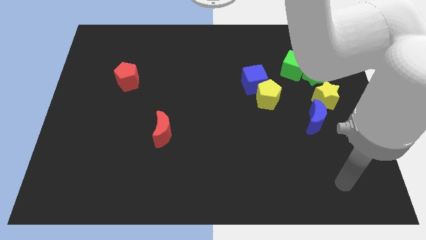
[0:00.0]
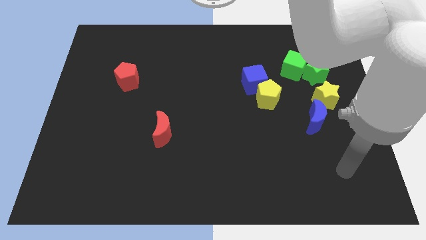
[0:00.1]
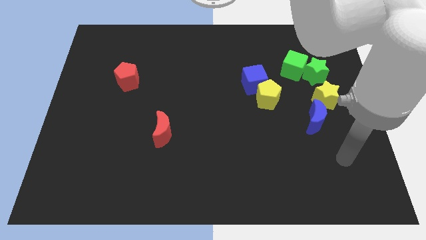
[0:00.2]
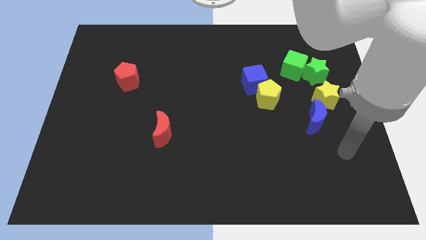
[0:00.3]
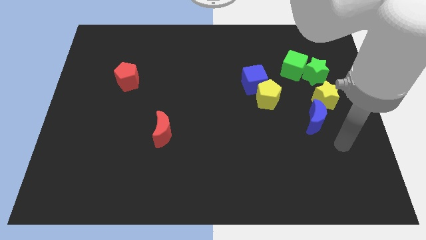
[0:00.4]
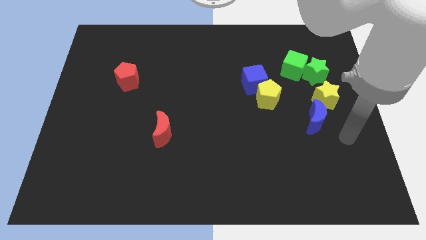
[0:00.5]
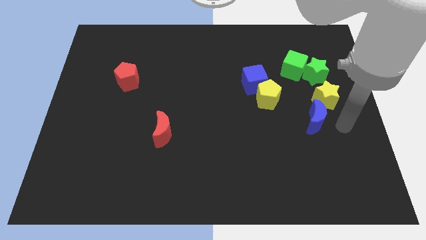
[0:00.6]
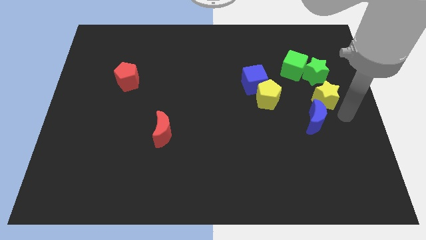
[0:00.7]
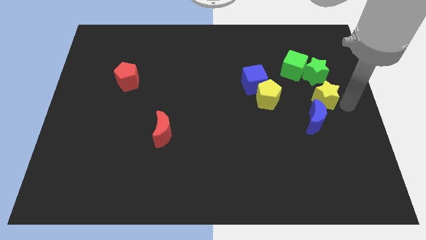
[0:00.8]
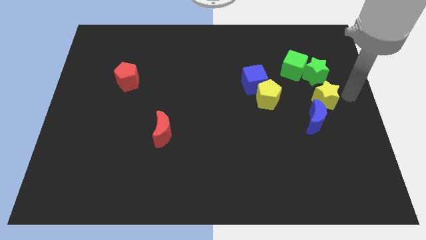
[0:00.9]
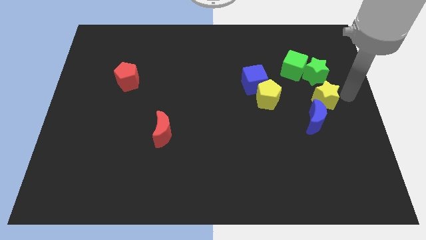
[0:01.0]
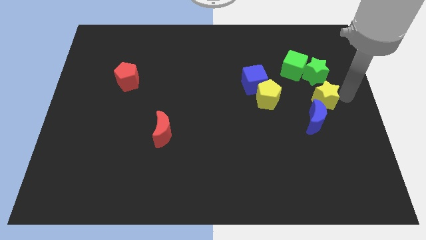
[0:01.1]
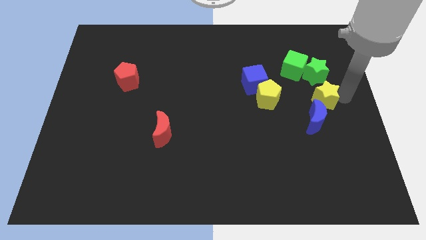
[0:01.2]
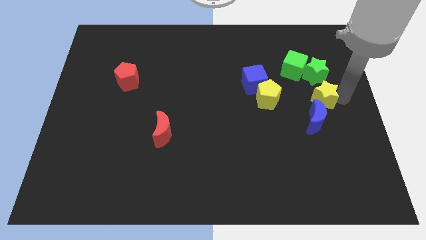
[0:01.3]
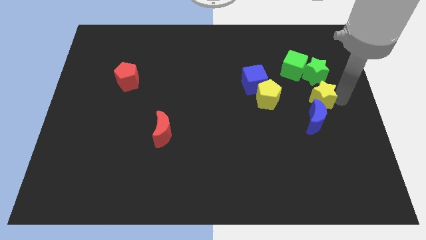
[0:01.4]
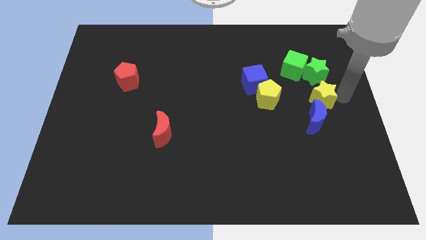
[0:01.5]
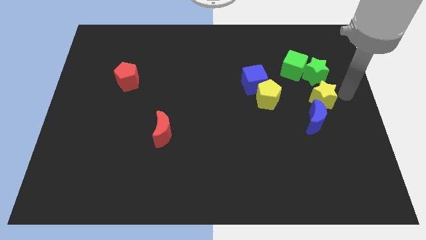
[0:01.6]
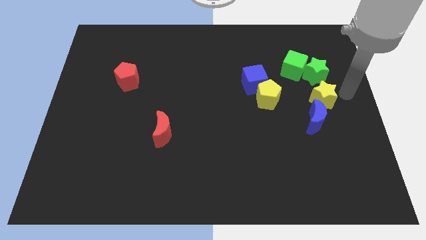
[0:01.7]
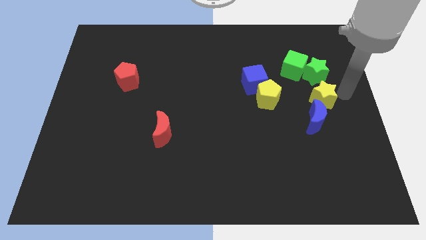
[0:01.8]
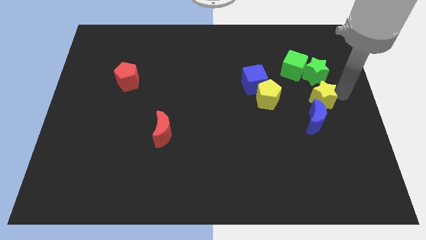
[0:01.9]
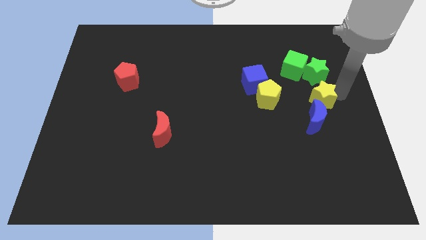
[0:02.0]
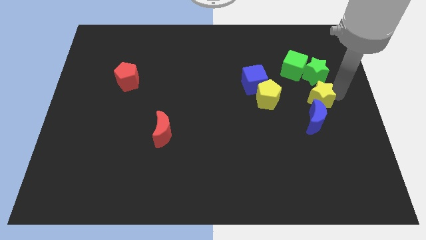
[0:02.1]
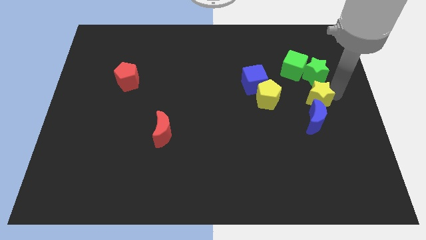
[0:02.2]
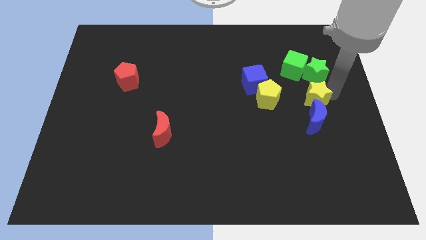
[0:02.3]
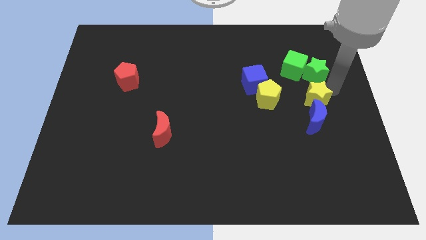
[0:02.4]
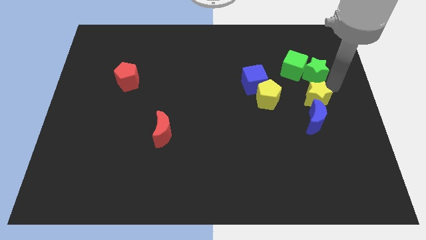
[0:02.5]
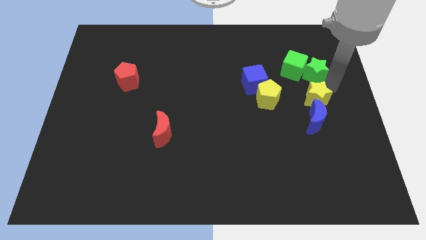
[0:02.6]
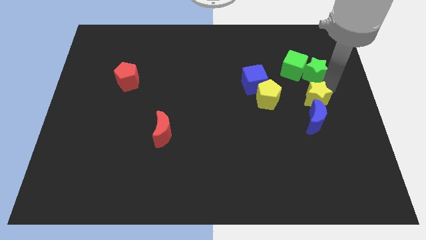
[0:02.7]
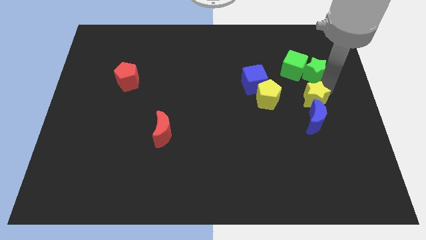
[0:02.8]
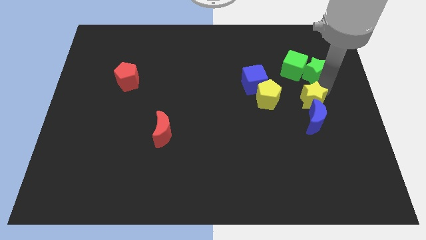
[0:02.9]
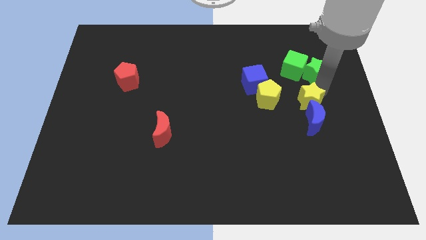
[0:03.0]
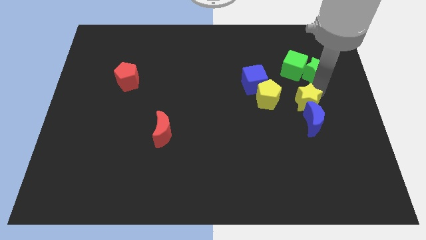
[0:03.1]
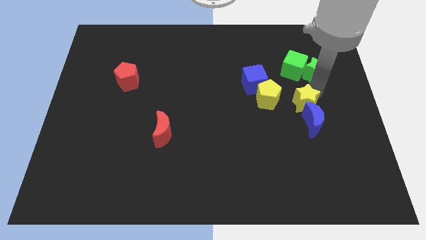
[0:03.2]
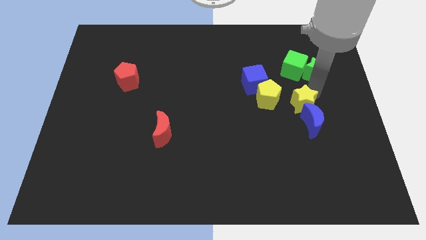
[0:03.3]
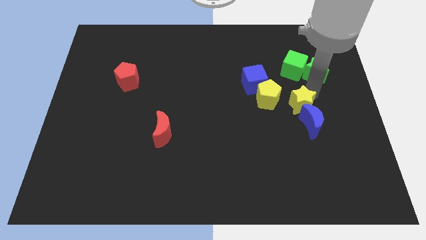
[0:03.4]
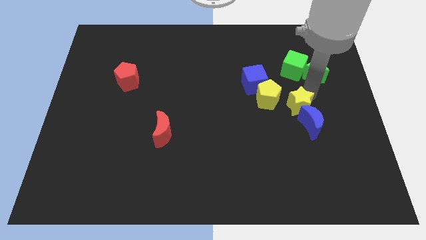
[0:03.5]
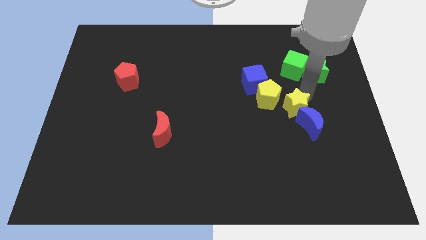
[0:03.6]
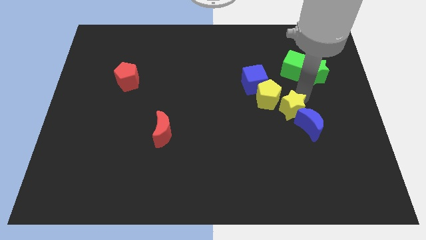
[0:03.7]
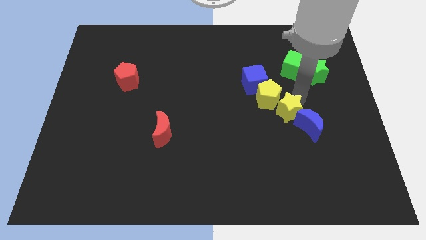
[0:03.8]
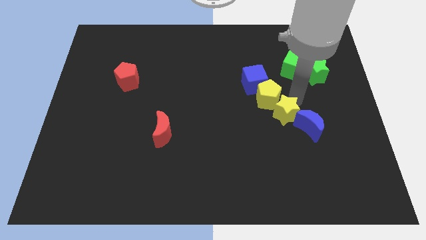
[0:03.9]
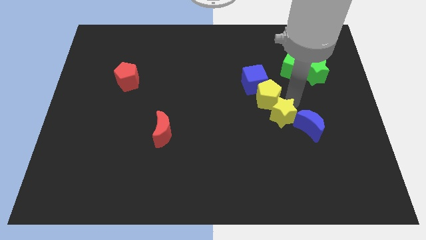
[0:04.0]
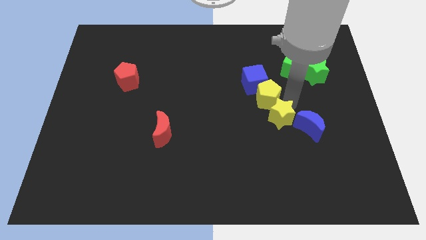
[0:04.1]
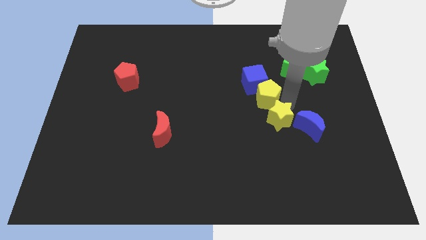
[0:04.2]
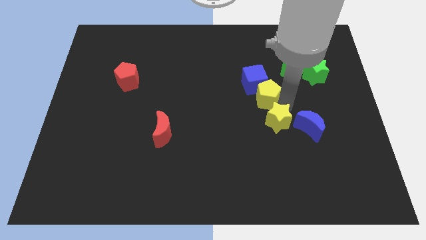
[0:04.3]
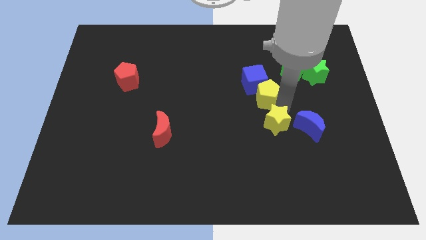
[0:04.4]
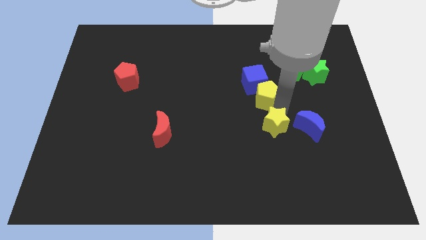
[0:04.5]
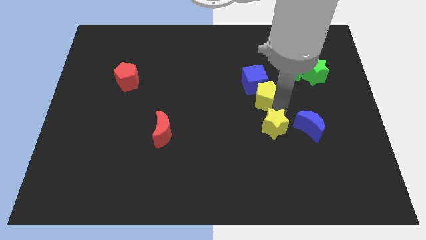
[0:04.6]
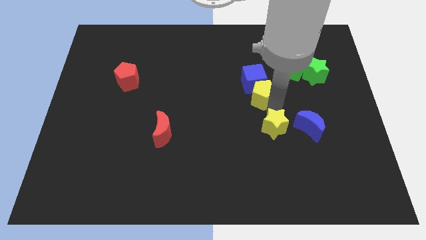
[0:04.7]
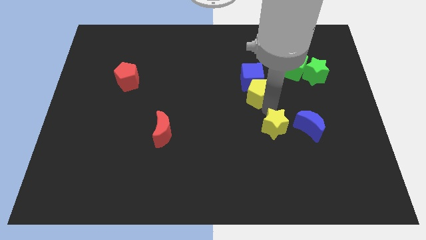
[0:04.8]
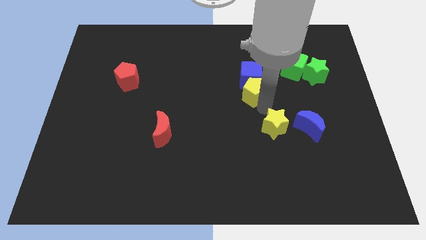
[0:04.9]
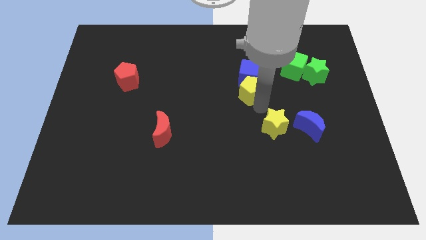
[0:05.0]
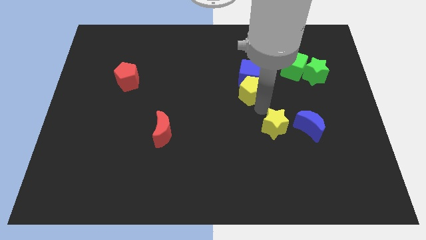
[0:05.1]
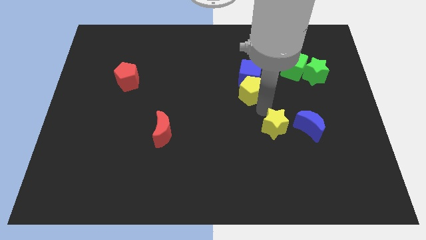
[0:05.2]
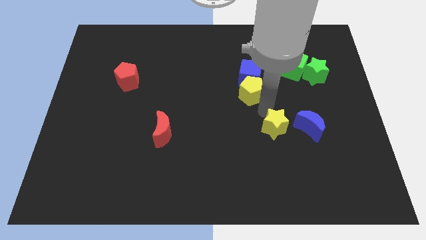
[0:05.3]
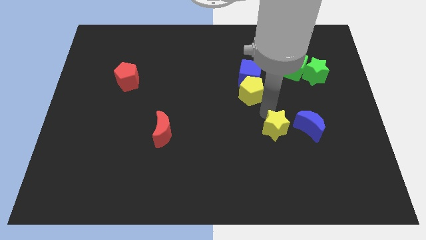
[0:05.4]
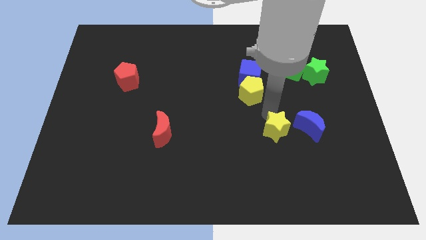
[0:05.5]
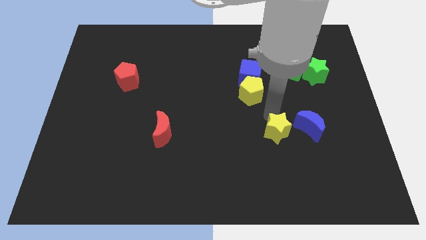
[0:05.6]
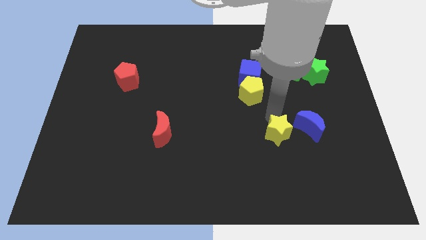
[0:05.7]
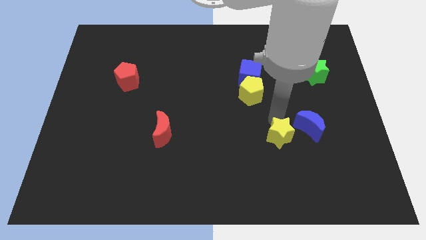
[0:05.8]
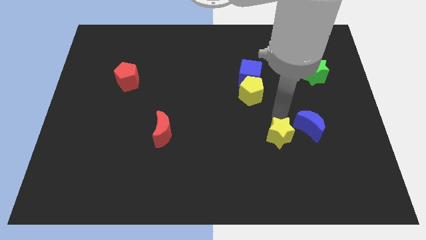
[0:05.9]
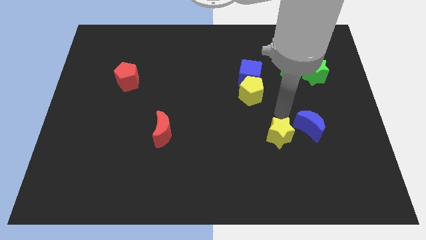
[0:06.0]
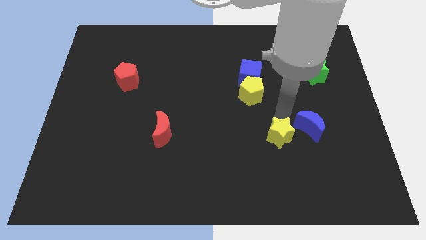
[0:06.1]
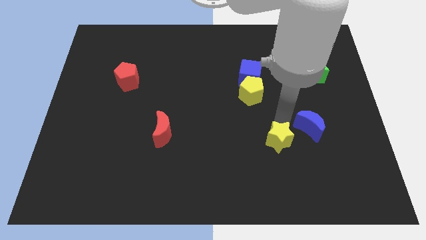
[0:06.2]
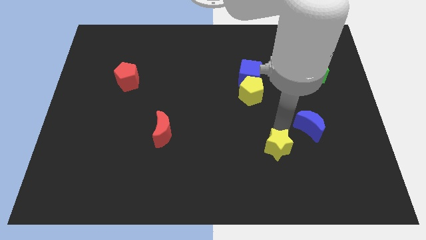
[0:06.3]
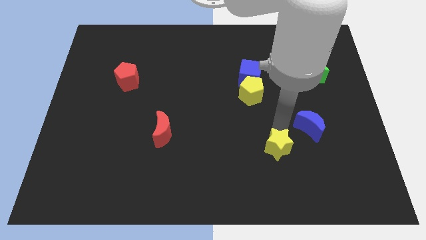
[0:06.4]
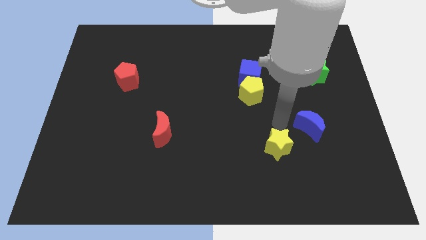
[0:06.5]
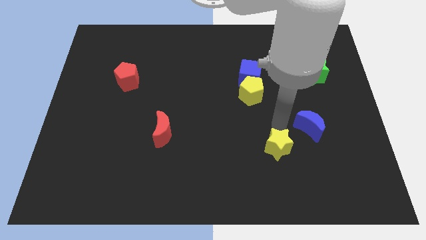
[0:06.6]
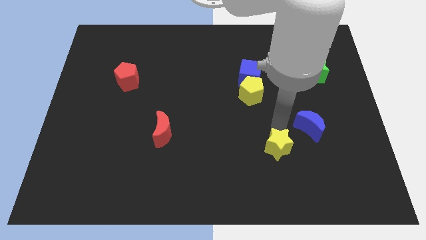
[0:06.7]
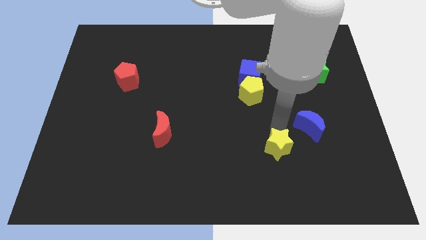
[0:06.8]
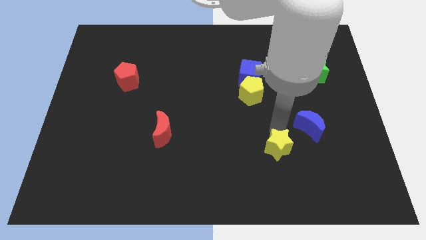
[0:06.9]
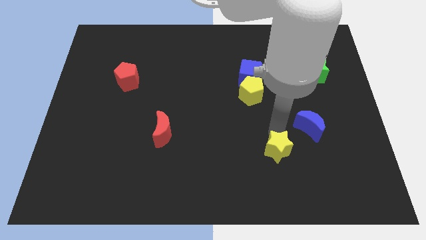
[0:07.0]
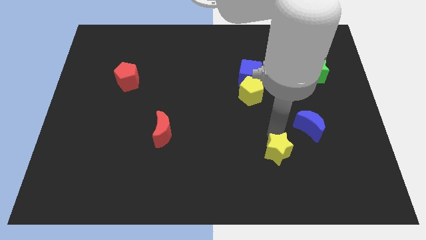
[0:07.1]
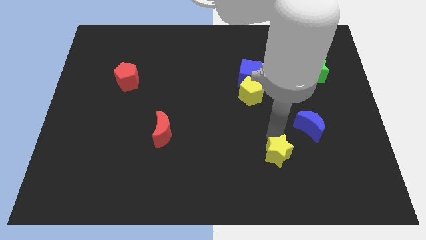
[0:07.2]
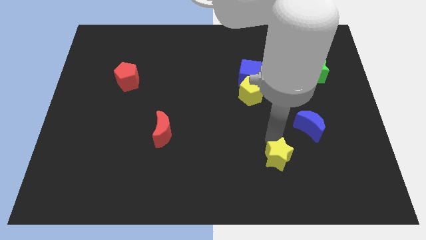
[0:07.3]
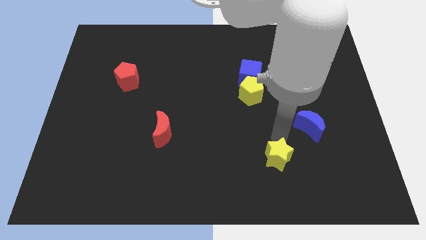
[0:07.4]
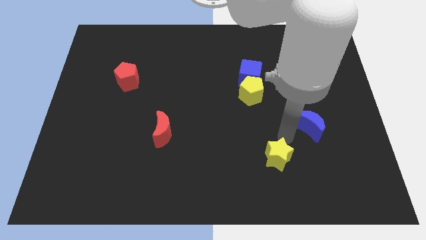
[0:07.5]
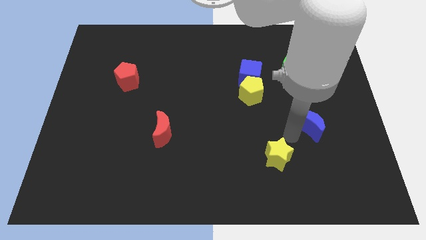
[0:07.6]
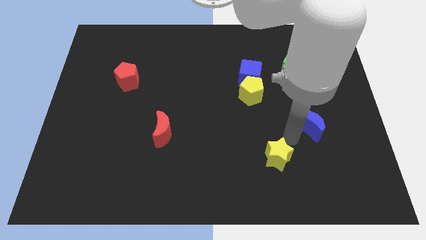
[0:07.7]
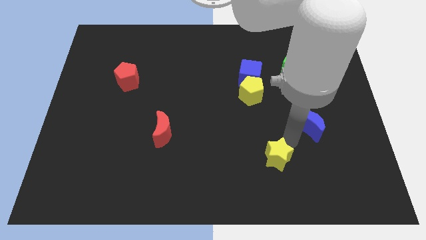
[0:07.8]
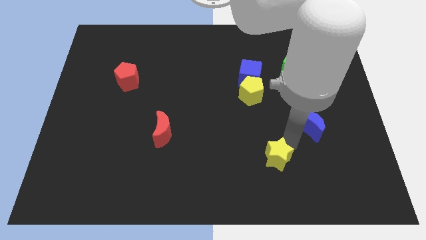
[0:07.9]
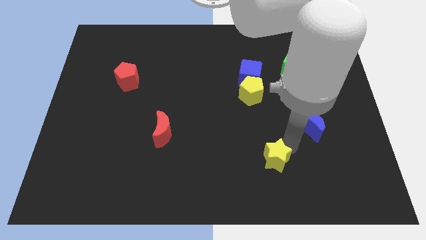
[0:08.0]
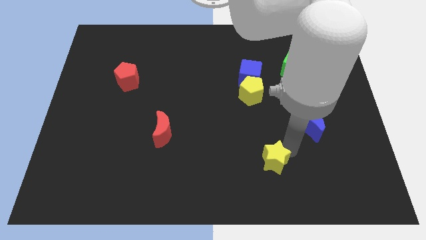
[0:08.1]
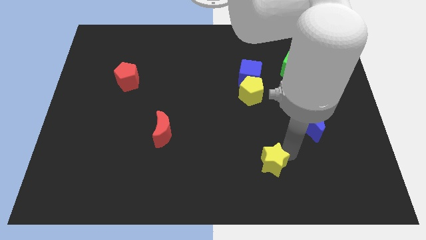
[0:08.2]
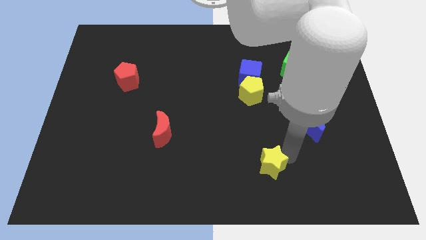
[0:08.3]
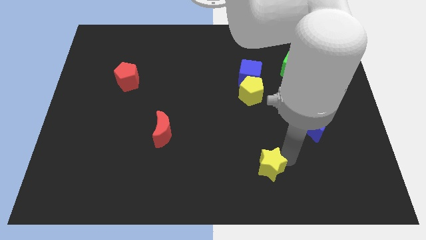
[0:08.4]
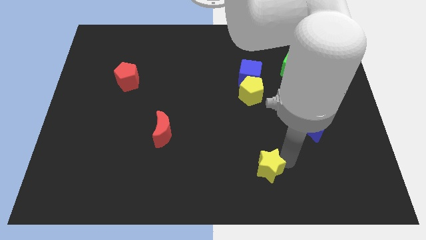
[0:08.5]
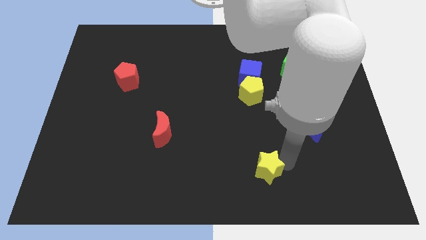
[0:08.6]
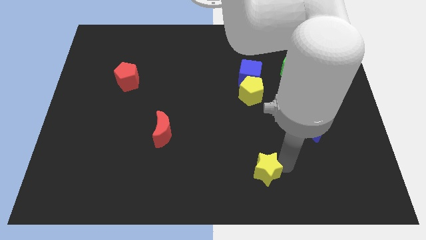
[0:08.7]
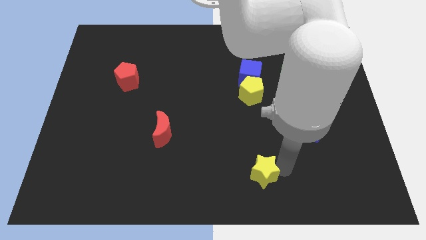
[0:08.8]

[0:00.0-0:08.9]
move the yellow star to the bottom
